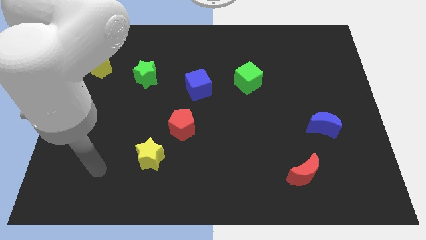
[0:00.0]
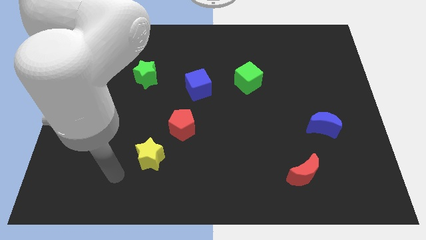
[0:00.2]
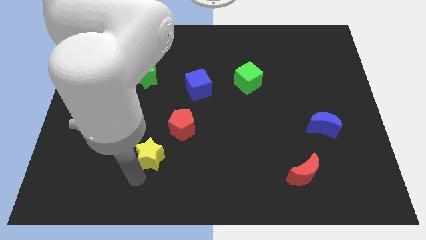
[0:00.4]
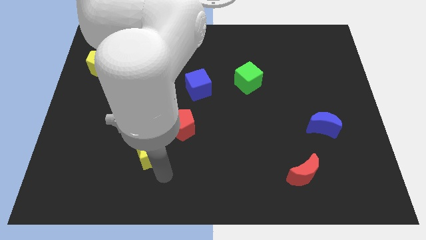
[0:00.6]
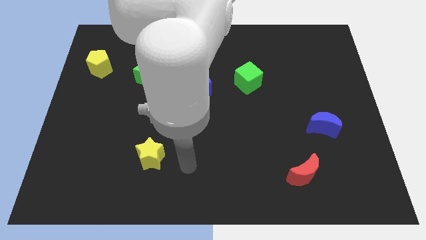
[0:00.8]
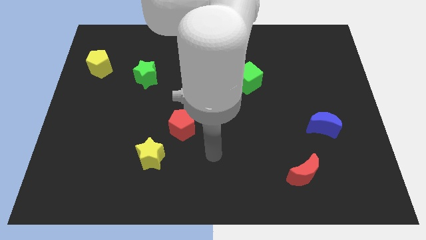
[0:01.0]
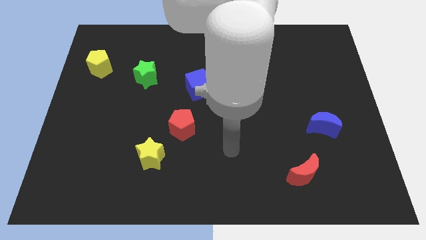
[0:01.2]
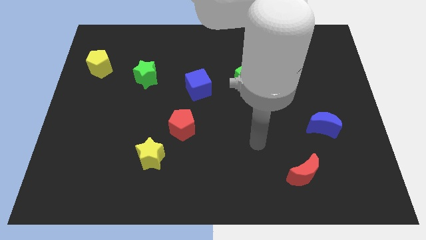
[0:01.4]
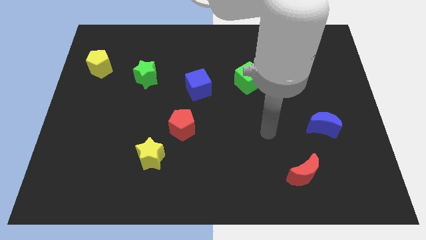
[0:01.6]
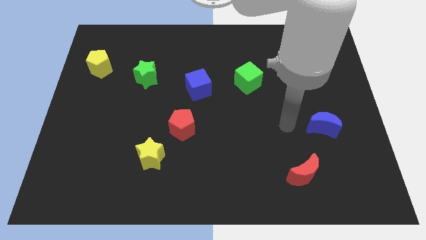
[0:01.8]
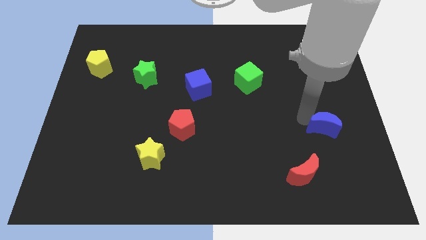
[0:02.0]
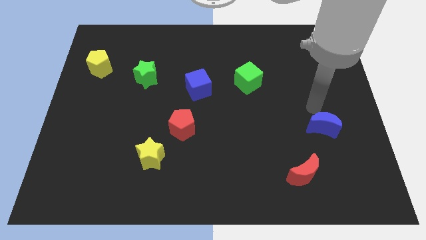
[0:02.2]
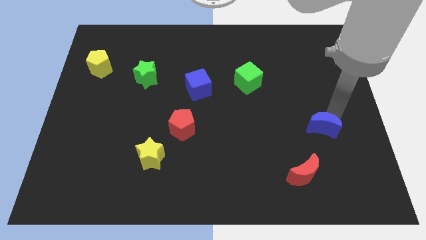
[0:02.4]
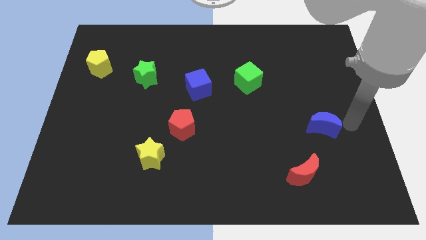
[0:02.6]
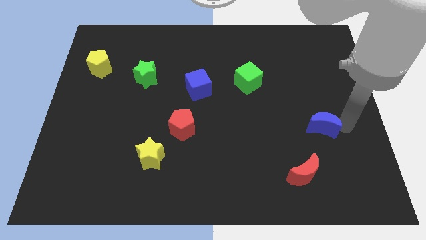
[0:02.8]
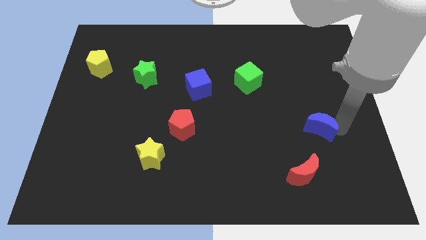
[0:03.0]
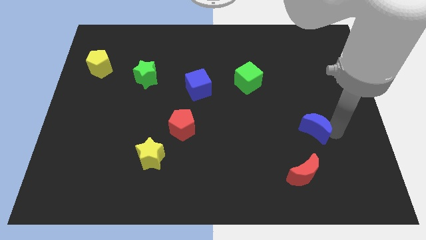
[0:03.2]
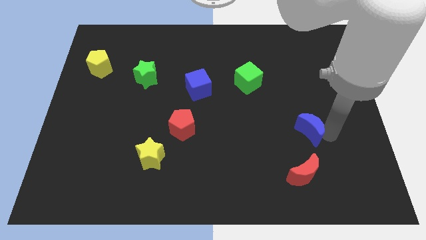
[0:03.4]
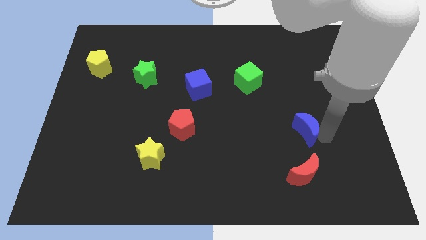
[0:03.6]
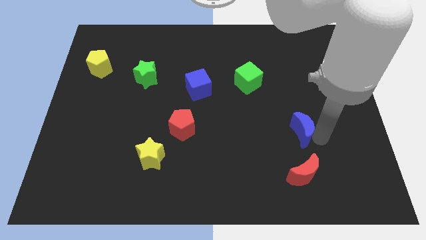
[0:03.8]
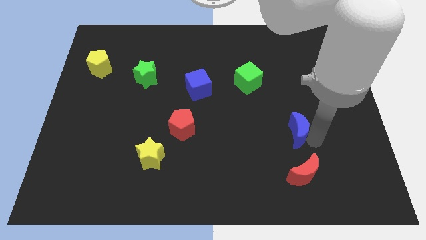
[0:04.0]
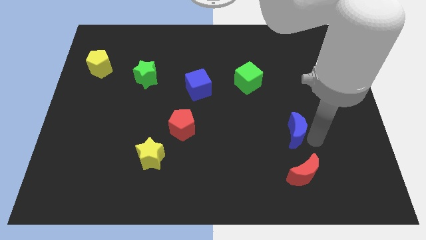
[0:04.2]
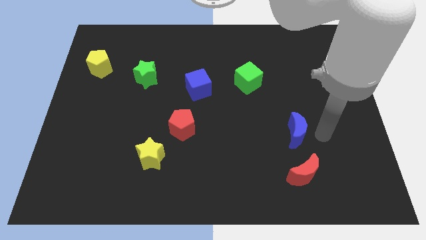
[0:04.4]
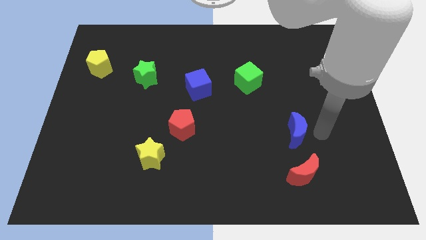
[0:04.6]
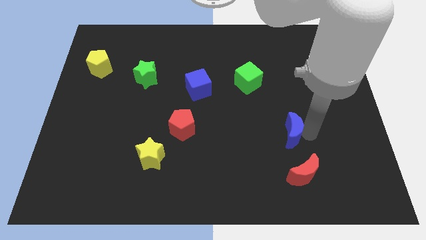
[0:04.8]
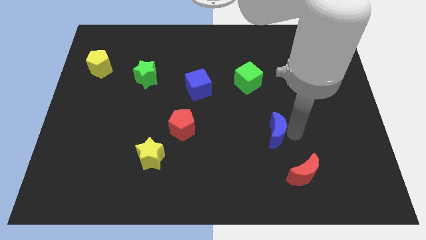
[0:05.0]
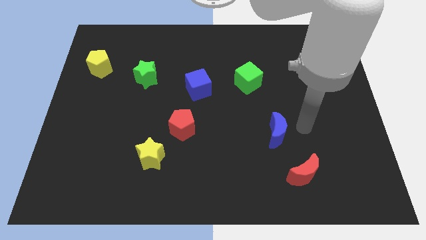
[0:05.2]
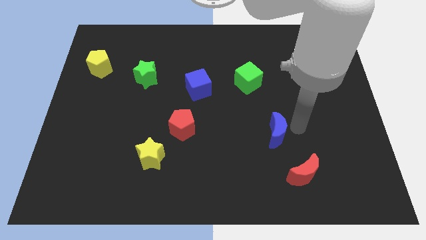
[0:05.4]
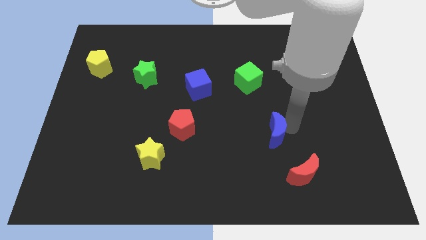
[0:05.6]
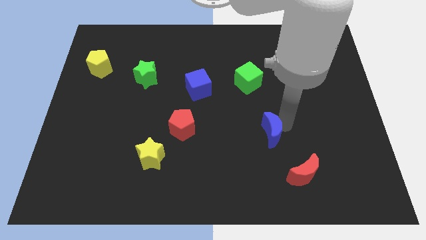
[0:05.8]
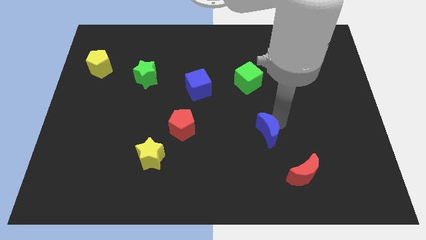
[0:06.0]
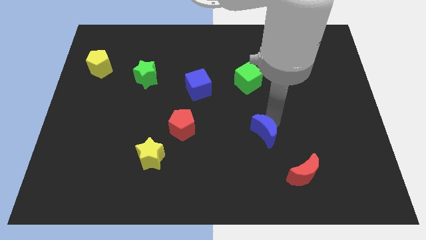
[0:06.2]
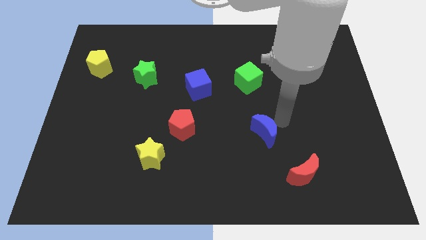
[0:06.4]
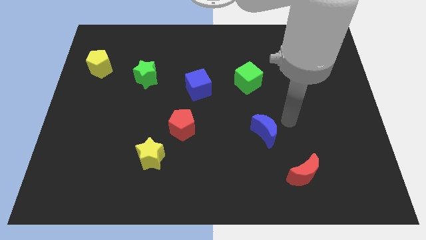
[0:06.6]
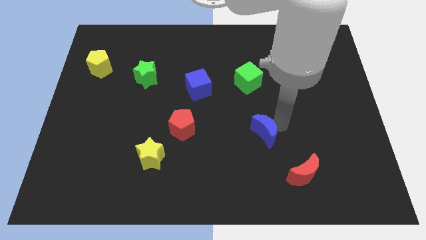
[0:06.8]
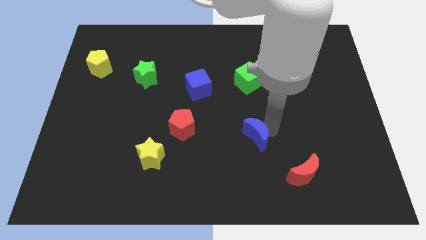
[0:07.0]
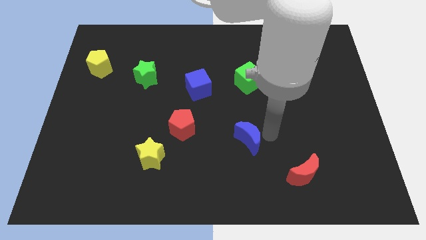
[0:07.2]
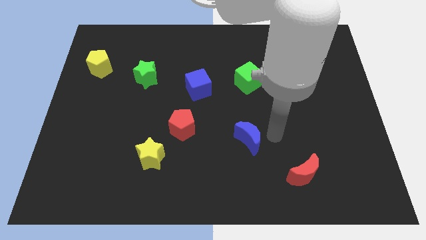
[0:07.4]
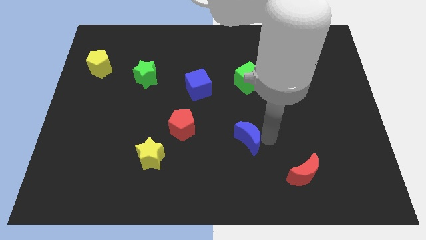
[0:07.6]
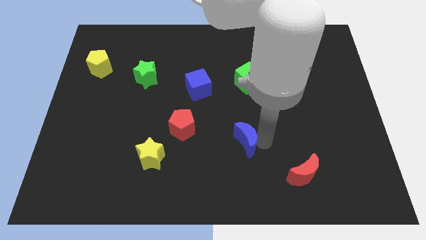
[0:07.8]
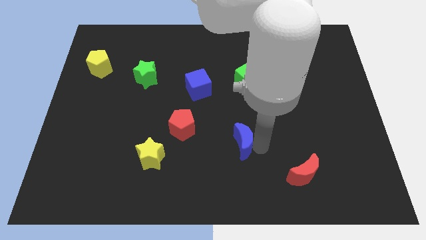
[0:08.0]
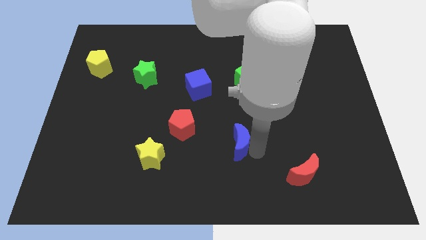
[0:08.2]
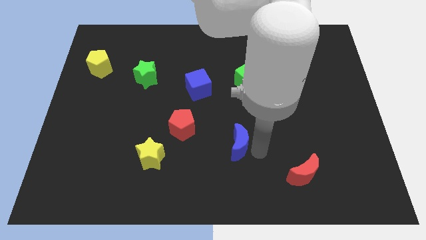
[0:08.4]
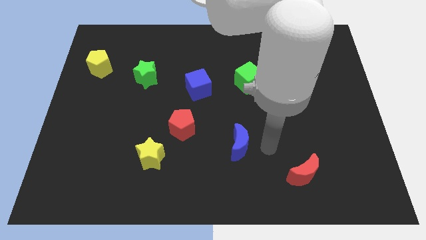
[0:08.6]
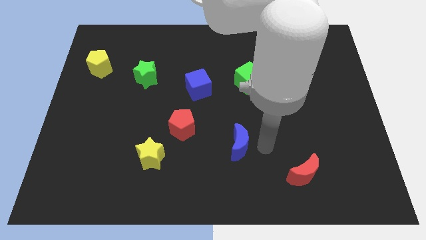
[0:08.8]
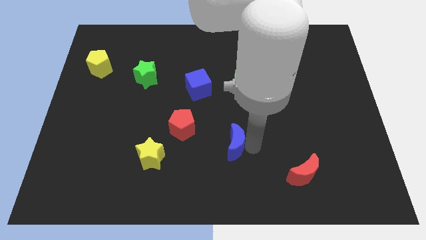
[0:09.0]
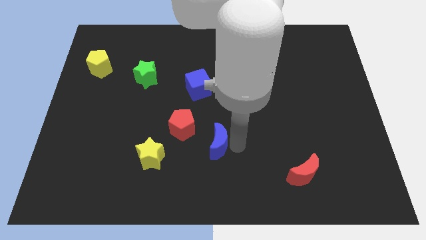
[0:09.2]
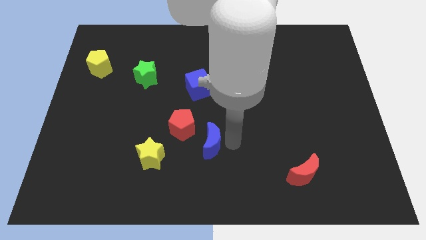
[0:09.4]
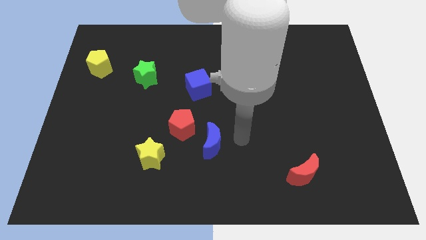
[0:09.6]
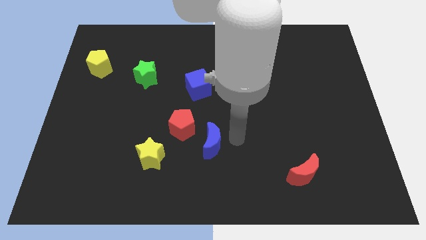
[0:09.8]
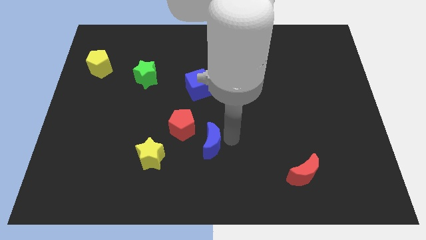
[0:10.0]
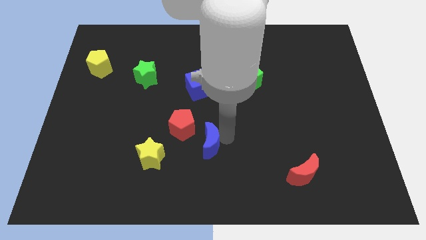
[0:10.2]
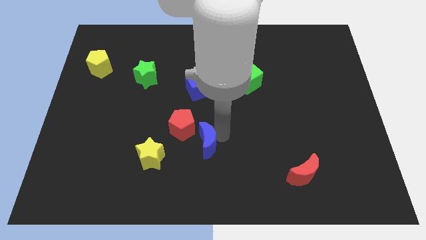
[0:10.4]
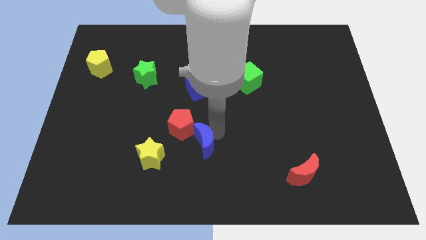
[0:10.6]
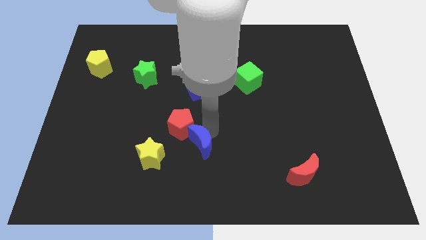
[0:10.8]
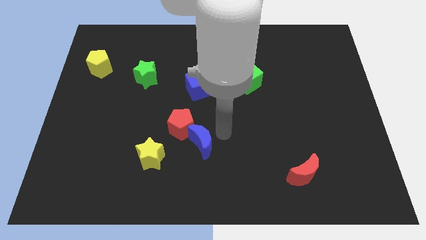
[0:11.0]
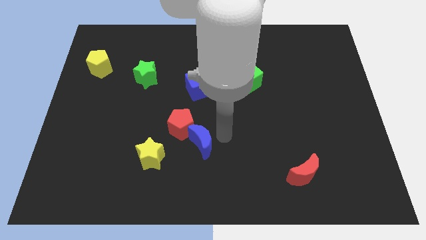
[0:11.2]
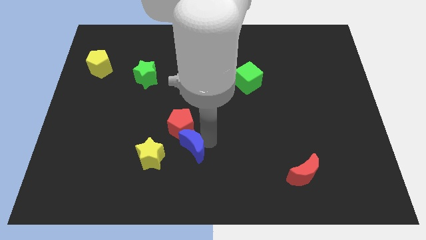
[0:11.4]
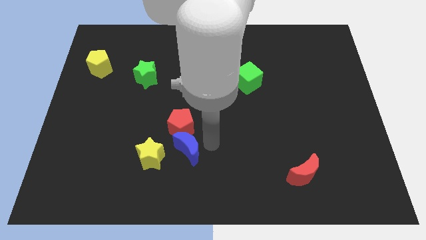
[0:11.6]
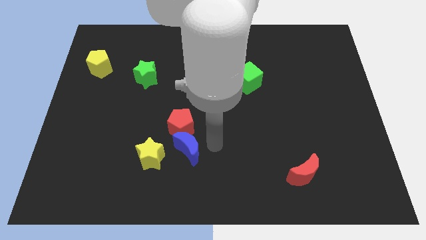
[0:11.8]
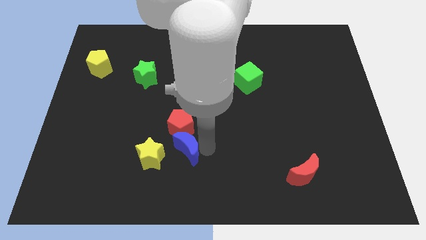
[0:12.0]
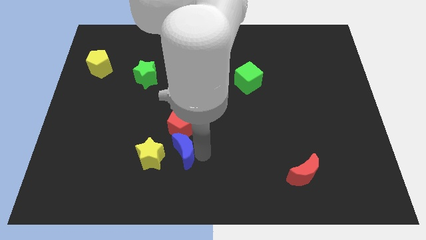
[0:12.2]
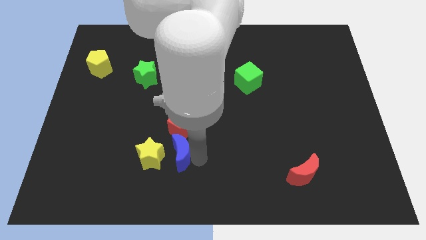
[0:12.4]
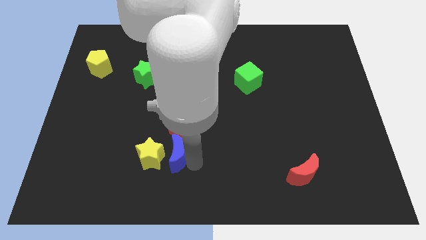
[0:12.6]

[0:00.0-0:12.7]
slide the blue moon to the yellow star

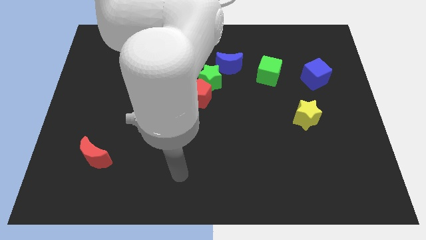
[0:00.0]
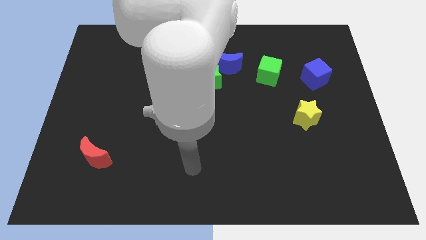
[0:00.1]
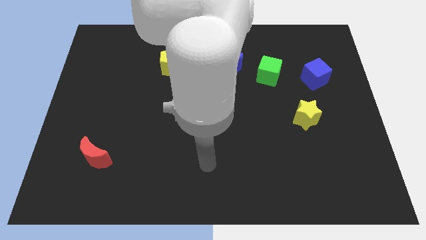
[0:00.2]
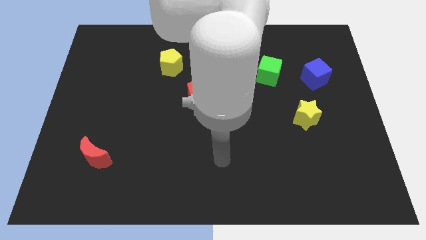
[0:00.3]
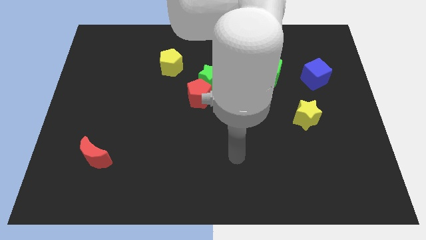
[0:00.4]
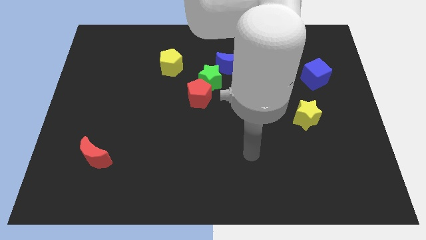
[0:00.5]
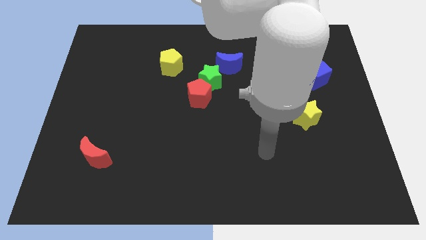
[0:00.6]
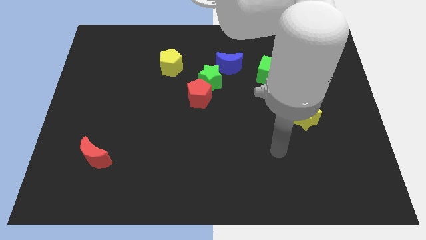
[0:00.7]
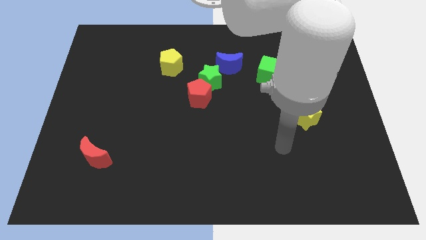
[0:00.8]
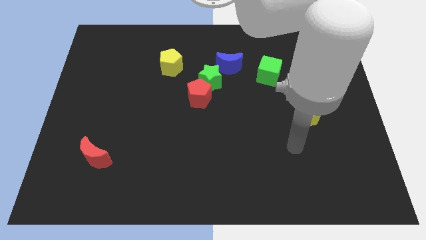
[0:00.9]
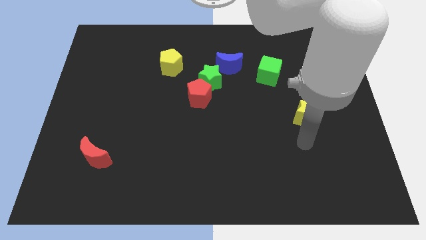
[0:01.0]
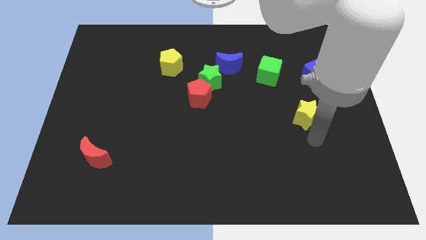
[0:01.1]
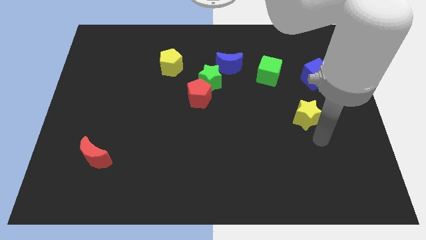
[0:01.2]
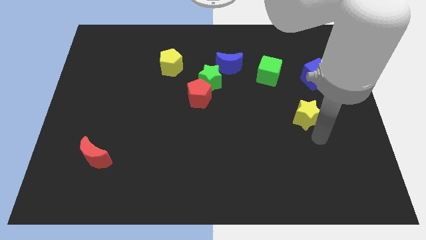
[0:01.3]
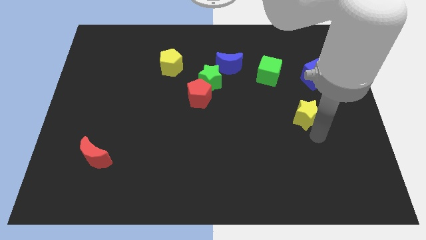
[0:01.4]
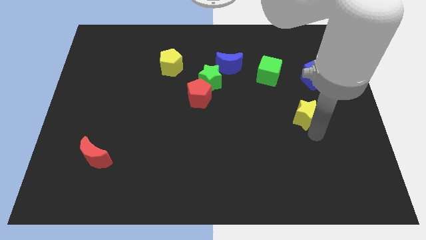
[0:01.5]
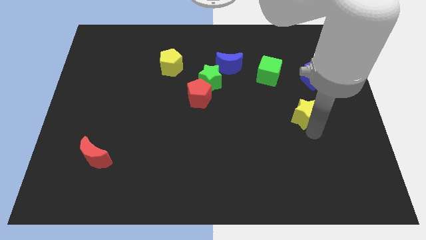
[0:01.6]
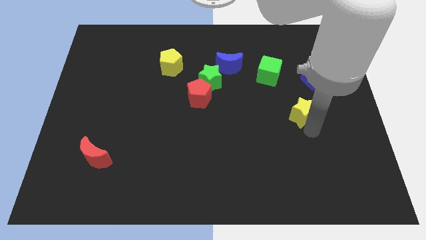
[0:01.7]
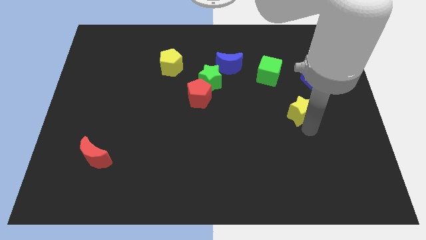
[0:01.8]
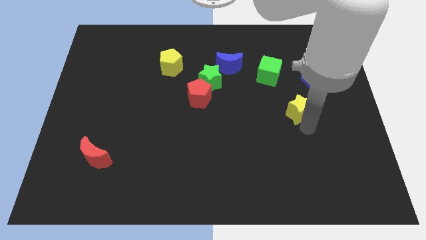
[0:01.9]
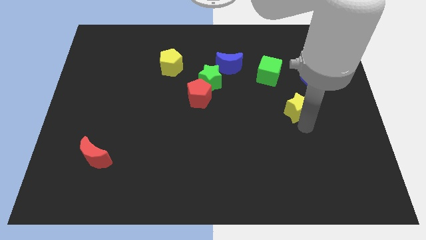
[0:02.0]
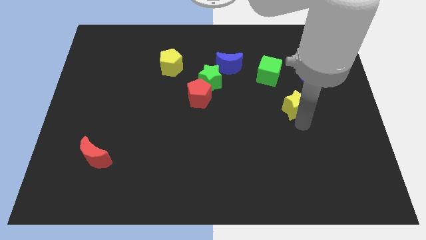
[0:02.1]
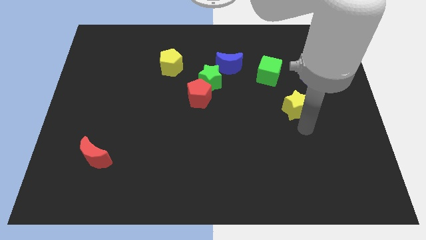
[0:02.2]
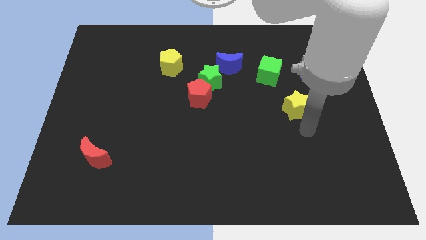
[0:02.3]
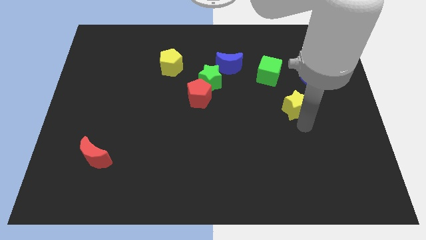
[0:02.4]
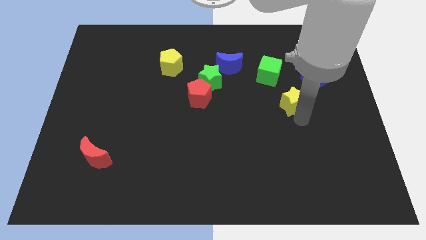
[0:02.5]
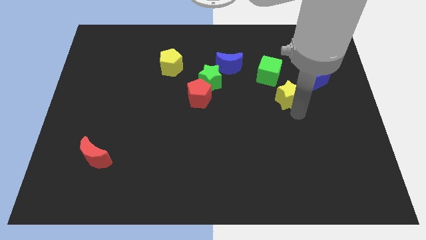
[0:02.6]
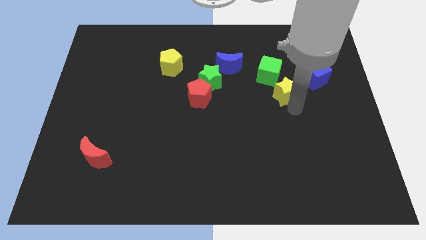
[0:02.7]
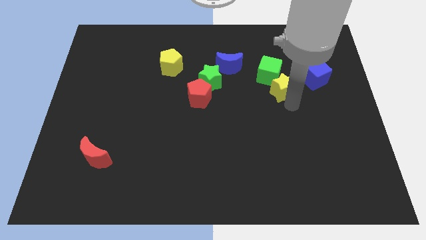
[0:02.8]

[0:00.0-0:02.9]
put the yellow star close to the green cube
